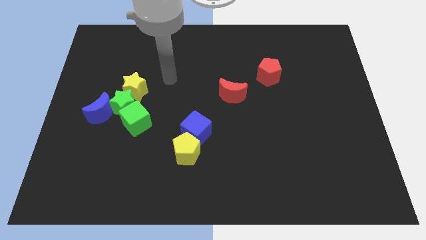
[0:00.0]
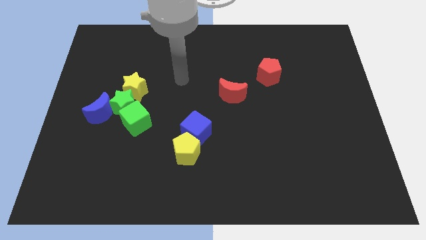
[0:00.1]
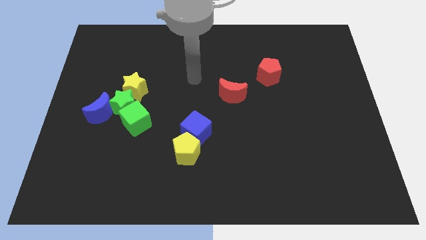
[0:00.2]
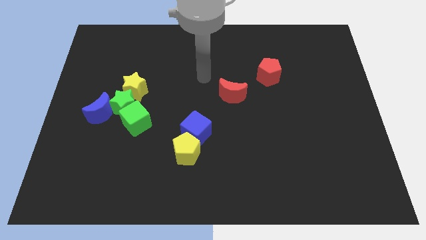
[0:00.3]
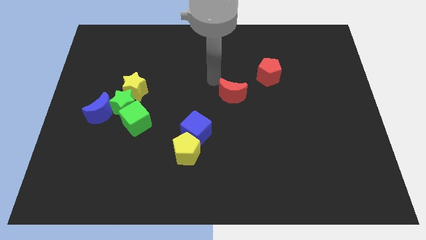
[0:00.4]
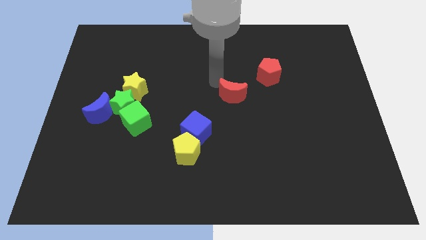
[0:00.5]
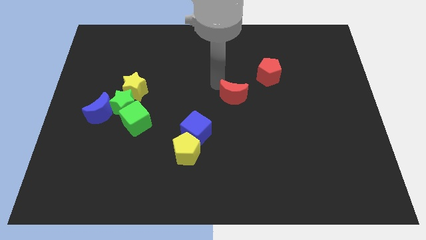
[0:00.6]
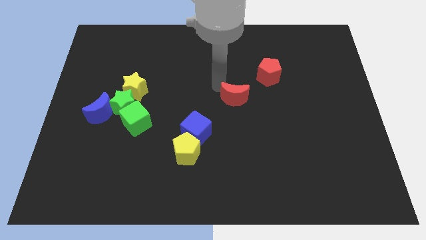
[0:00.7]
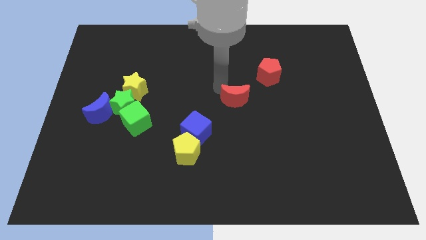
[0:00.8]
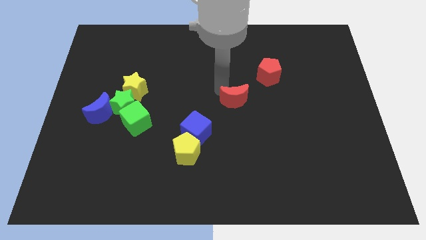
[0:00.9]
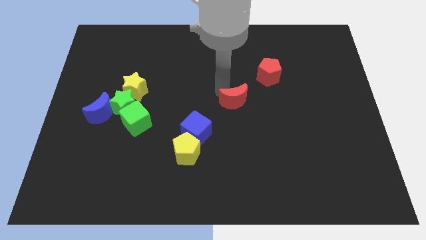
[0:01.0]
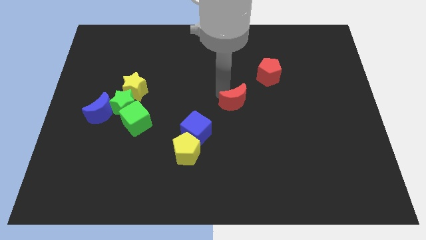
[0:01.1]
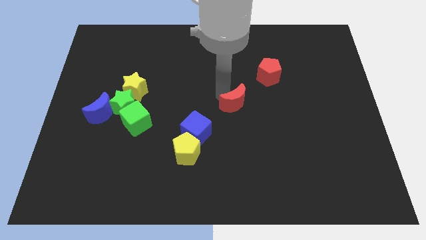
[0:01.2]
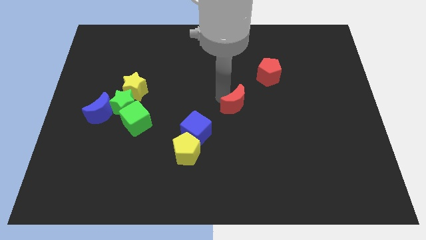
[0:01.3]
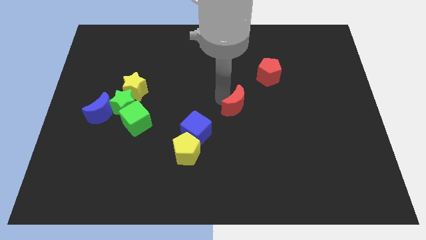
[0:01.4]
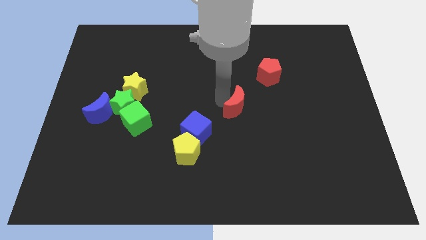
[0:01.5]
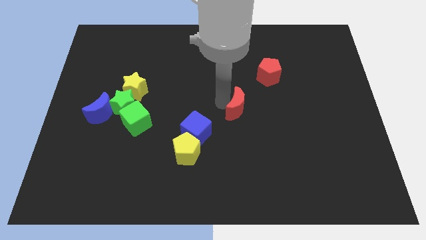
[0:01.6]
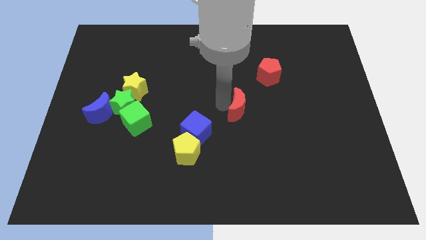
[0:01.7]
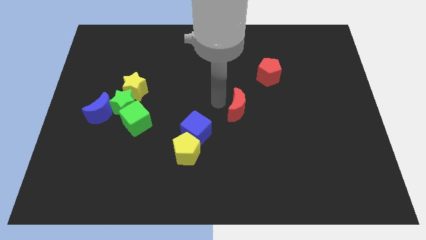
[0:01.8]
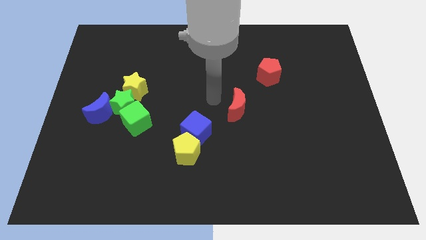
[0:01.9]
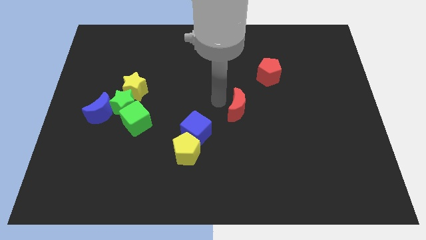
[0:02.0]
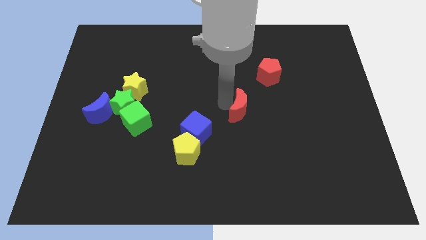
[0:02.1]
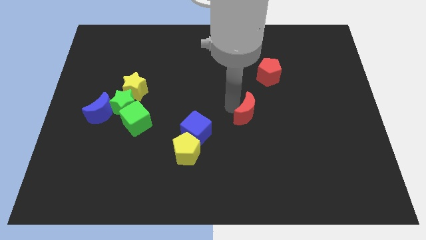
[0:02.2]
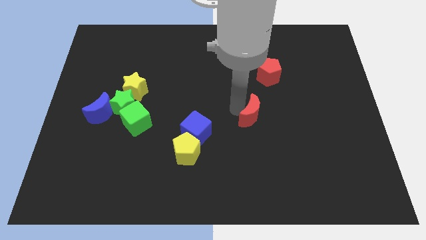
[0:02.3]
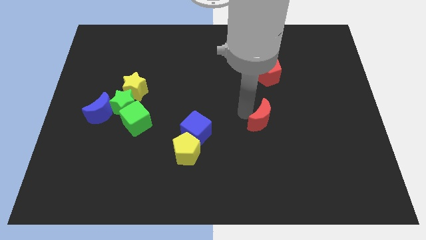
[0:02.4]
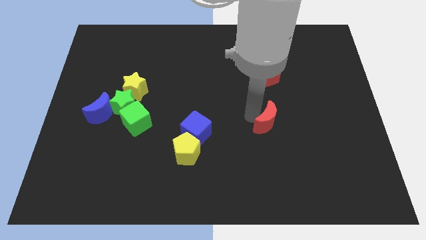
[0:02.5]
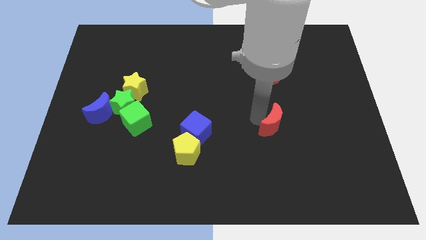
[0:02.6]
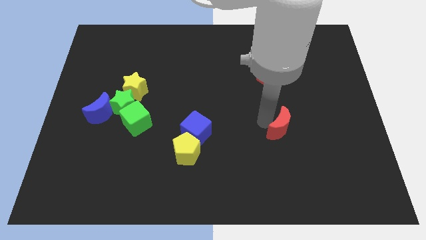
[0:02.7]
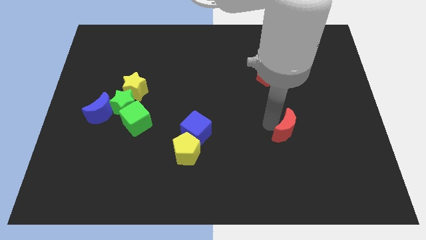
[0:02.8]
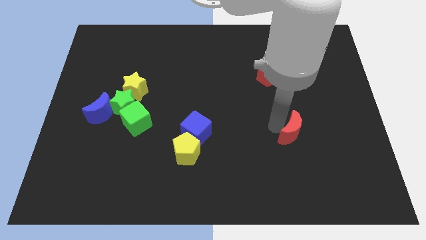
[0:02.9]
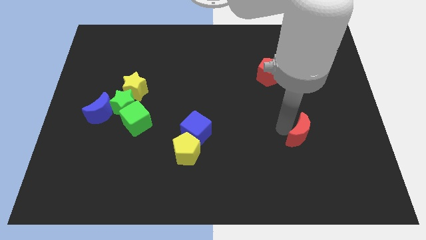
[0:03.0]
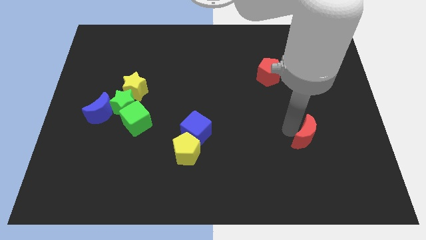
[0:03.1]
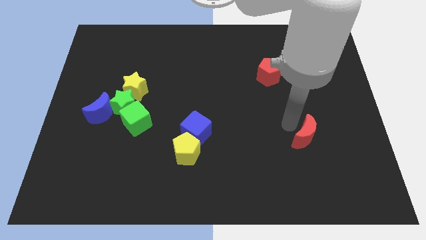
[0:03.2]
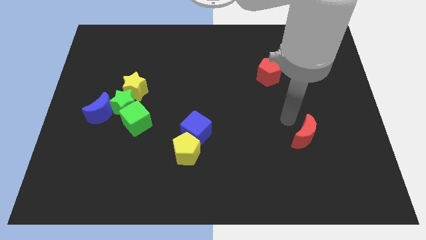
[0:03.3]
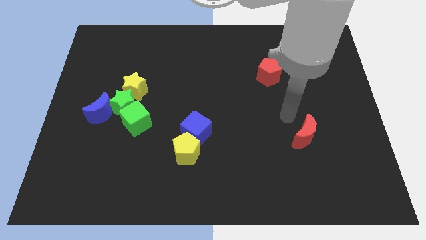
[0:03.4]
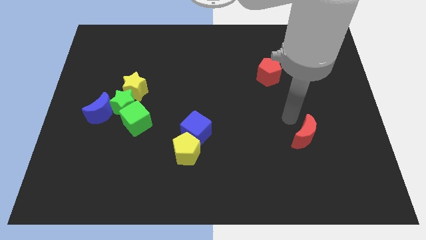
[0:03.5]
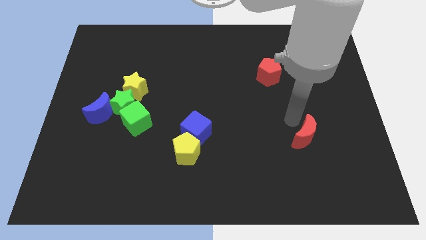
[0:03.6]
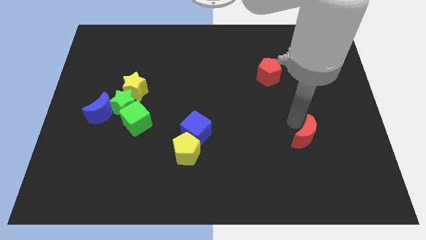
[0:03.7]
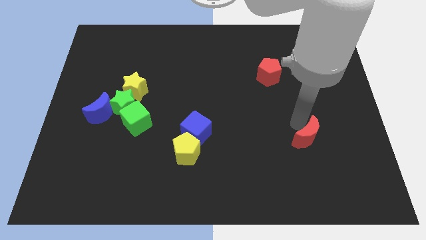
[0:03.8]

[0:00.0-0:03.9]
push the red moon down and then right

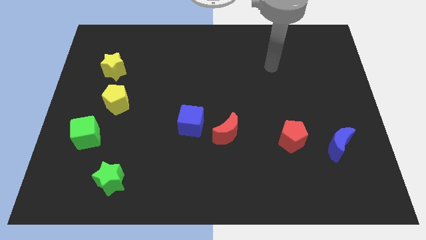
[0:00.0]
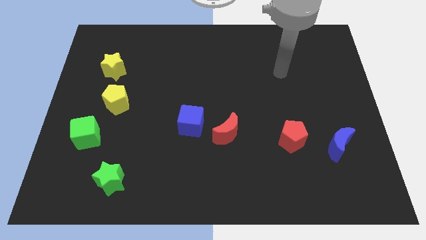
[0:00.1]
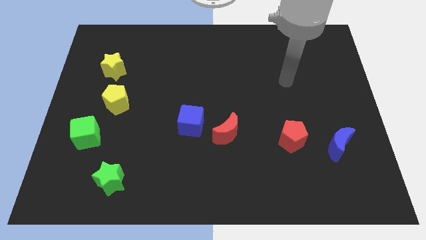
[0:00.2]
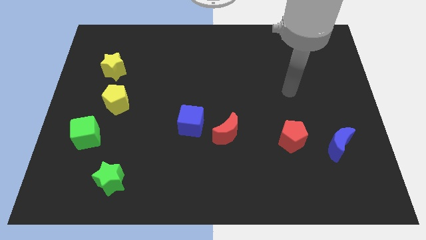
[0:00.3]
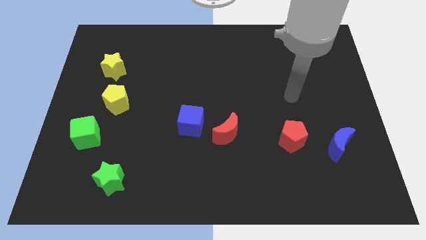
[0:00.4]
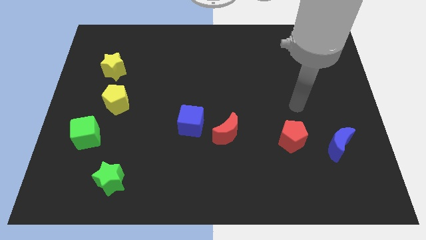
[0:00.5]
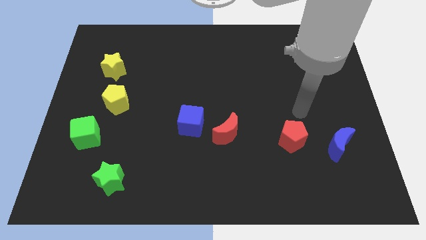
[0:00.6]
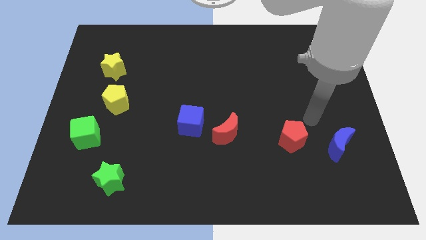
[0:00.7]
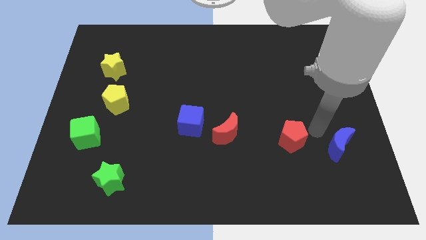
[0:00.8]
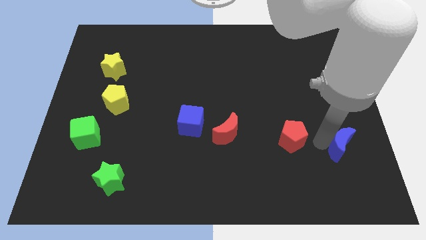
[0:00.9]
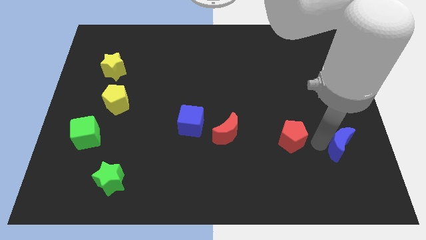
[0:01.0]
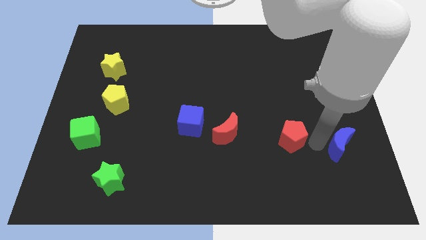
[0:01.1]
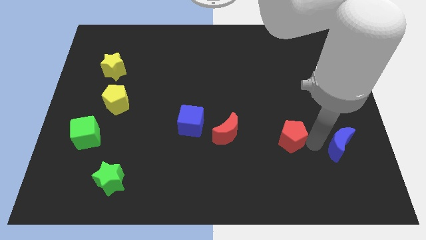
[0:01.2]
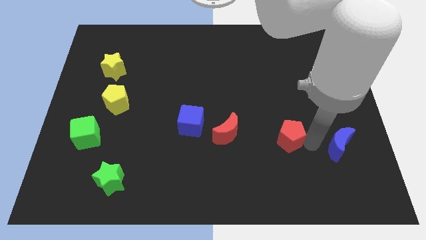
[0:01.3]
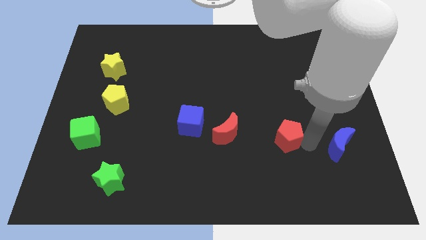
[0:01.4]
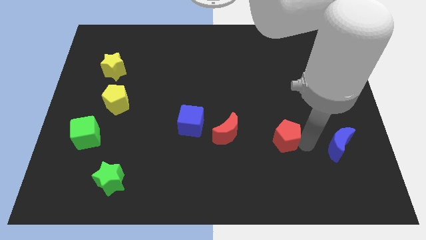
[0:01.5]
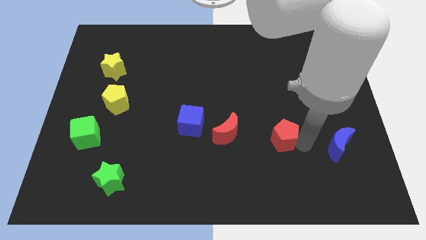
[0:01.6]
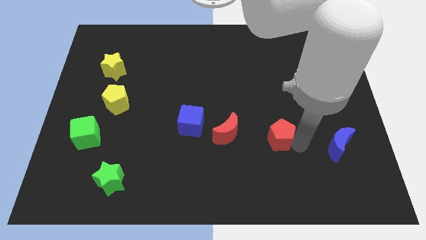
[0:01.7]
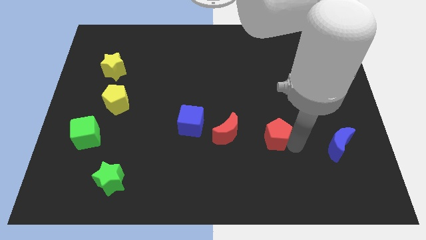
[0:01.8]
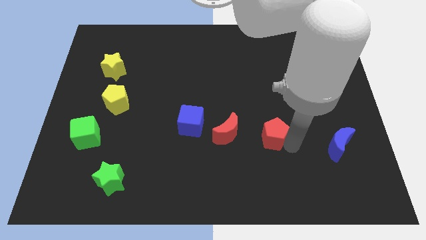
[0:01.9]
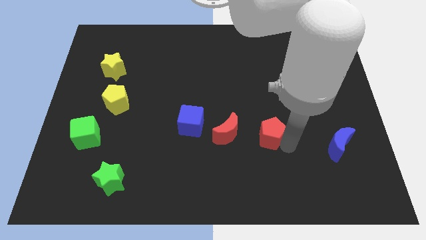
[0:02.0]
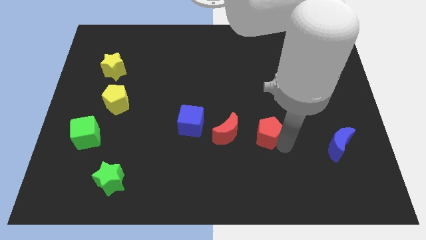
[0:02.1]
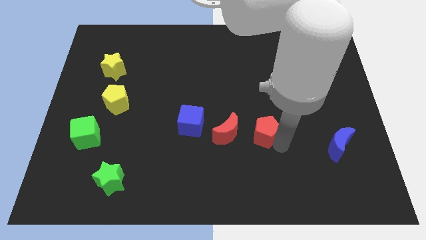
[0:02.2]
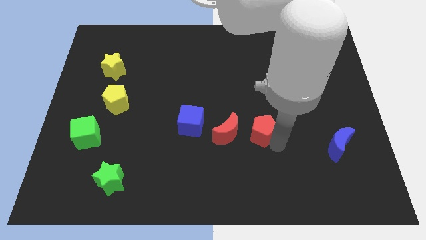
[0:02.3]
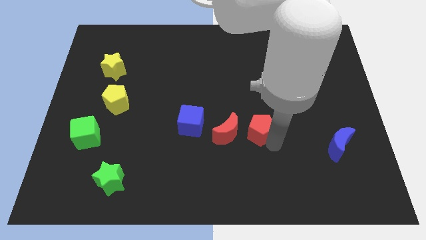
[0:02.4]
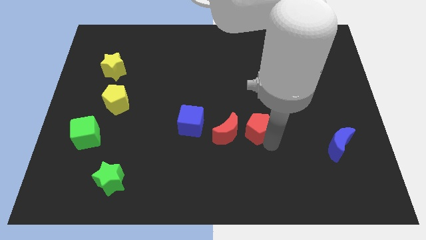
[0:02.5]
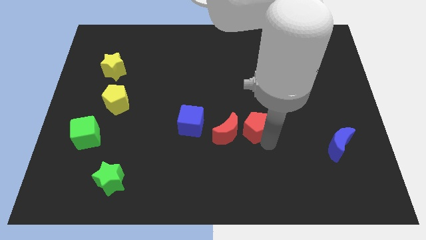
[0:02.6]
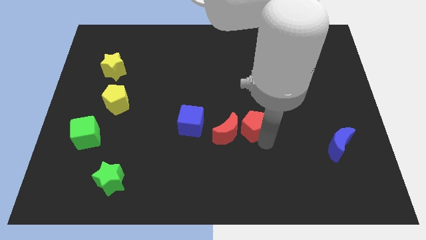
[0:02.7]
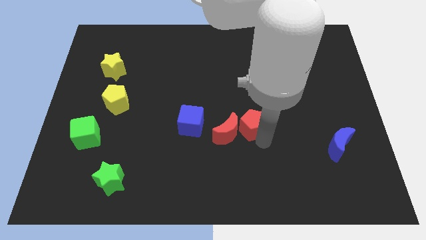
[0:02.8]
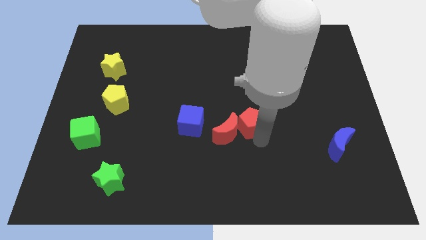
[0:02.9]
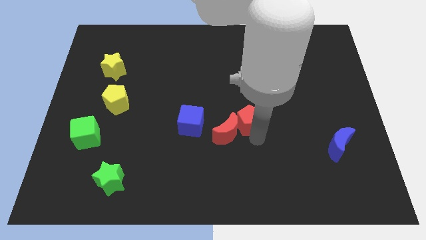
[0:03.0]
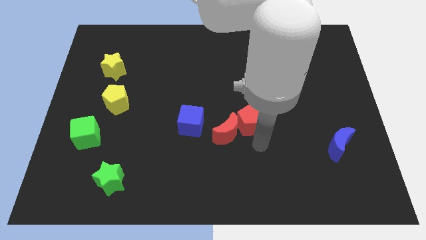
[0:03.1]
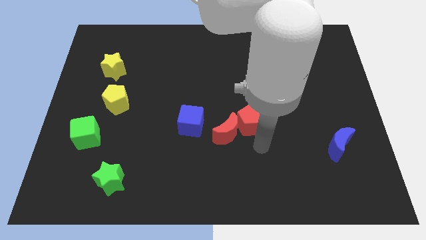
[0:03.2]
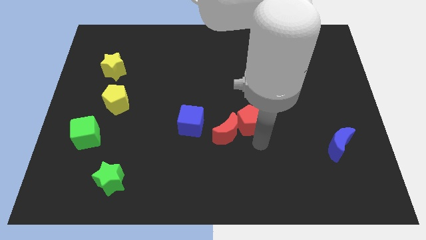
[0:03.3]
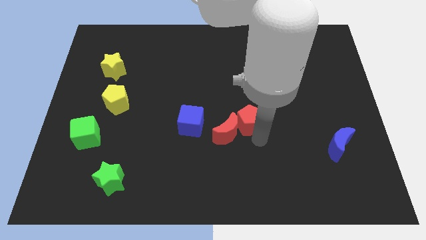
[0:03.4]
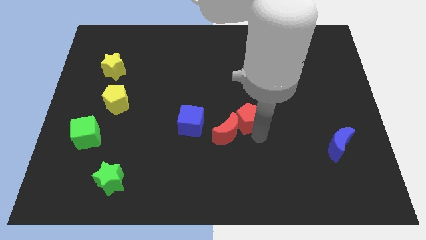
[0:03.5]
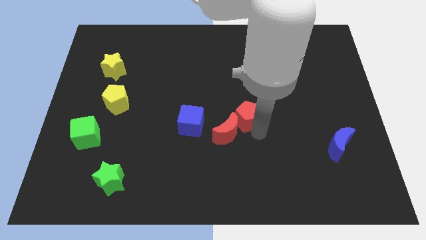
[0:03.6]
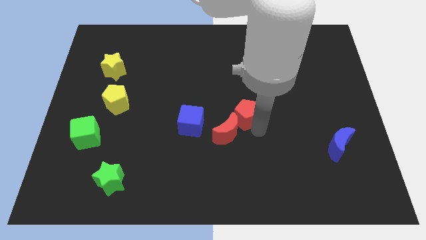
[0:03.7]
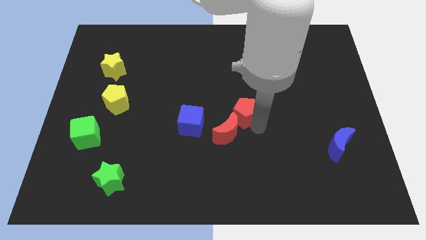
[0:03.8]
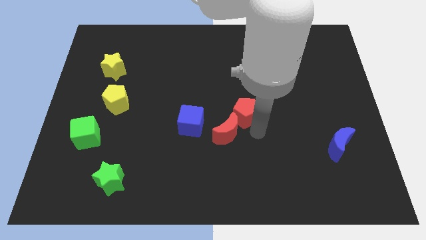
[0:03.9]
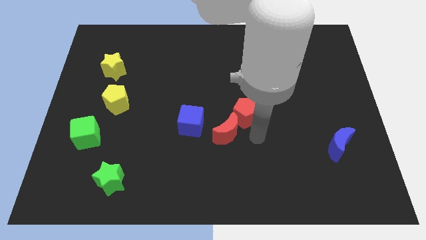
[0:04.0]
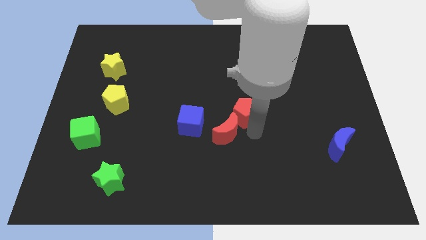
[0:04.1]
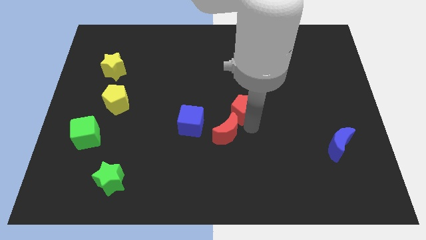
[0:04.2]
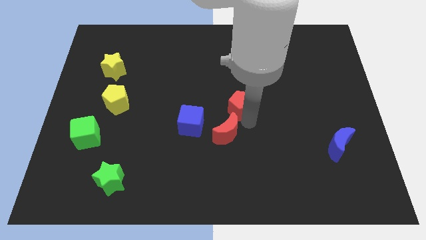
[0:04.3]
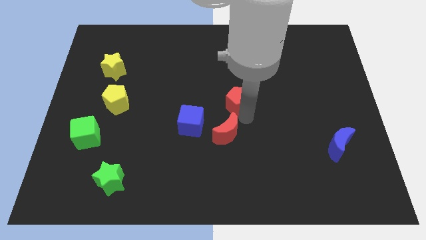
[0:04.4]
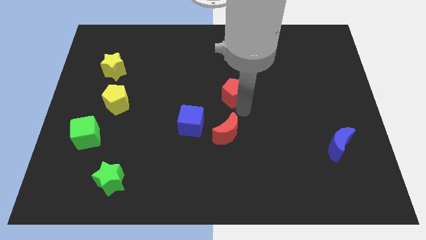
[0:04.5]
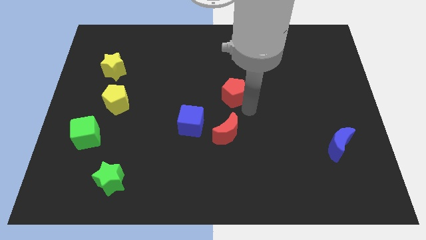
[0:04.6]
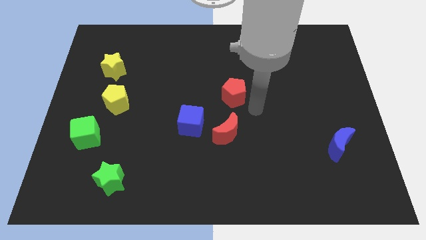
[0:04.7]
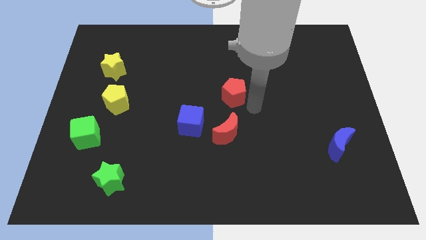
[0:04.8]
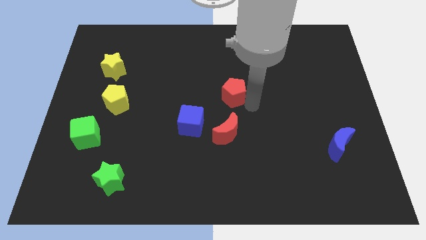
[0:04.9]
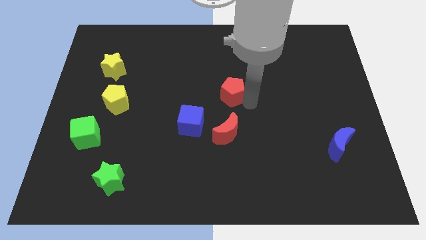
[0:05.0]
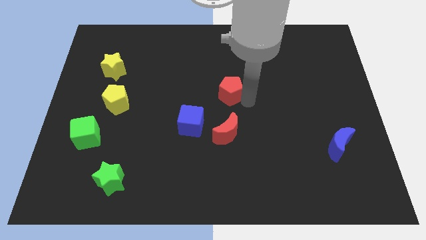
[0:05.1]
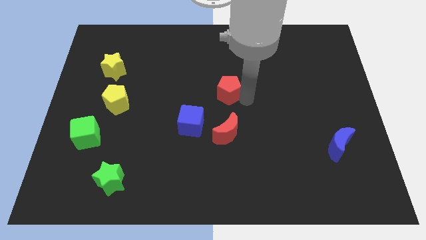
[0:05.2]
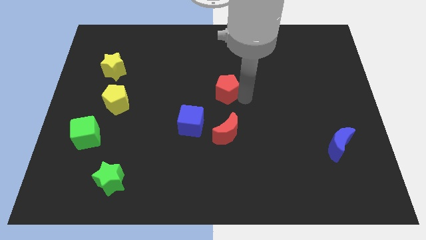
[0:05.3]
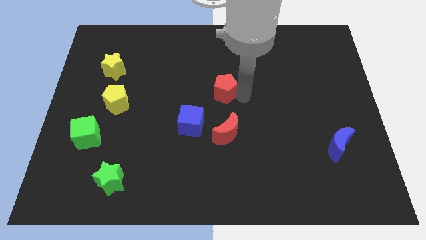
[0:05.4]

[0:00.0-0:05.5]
slide the red pentagon up and then left
